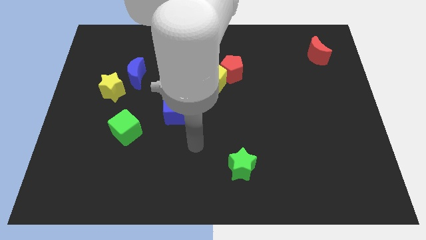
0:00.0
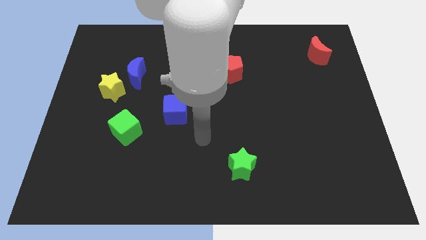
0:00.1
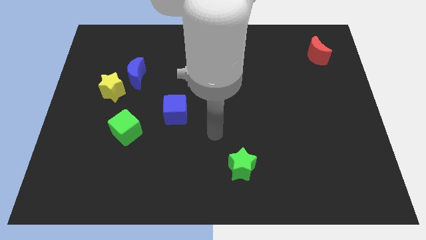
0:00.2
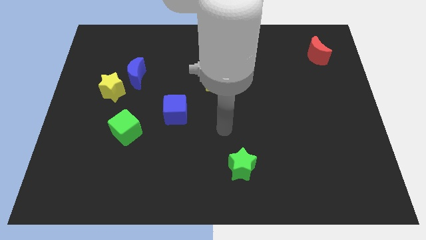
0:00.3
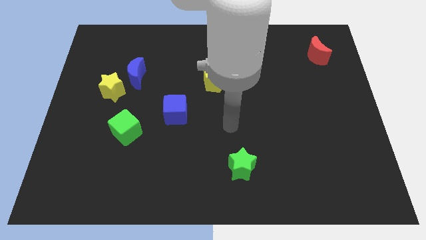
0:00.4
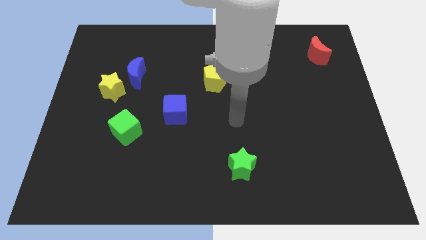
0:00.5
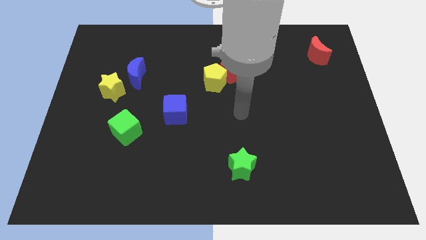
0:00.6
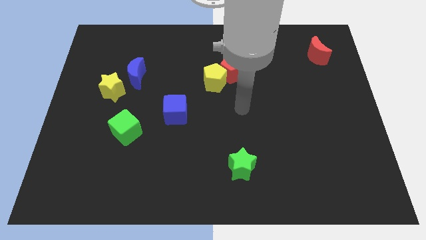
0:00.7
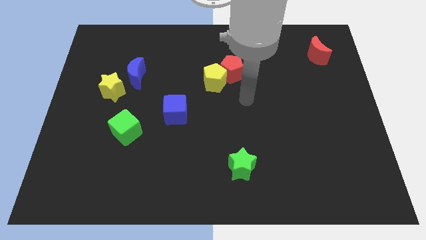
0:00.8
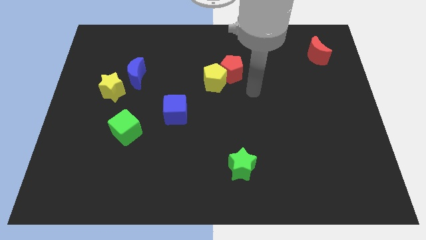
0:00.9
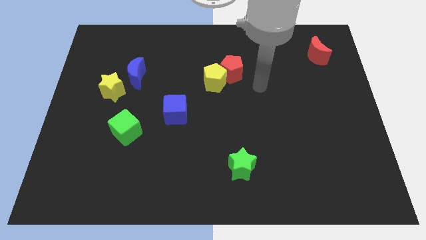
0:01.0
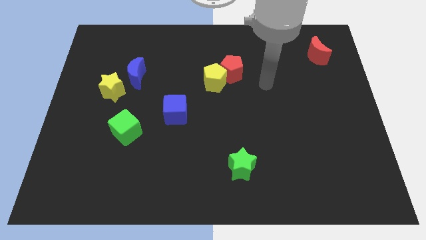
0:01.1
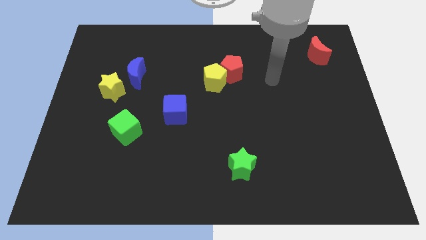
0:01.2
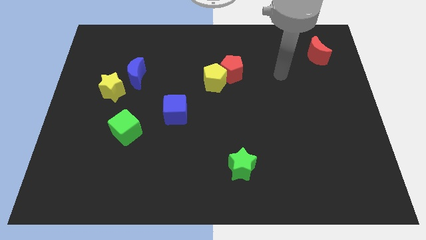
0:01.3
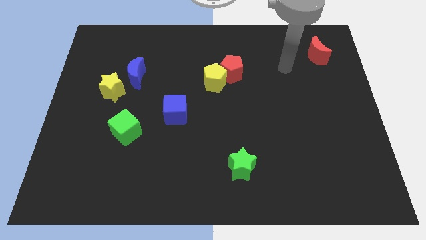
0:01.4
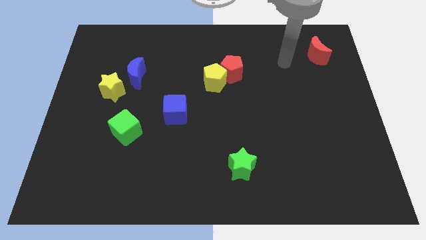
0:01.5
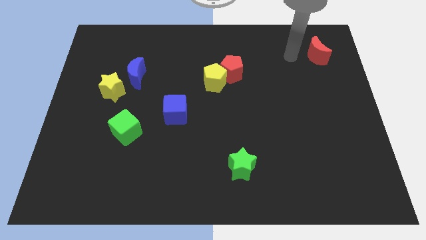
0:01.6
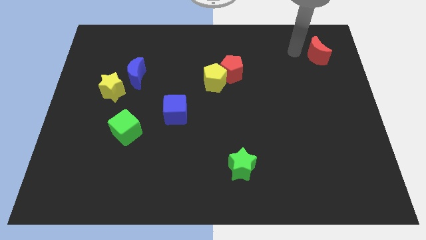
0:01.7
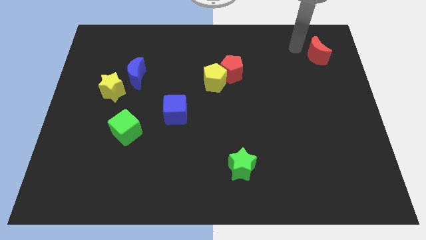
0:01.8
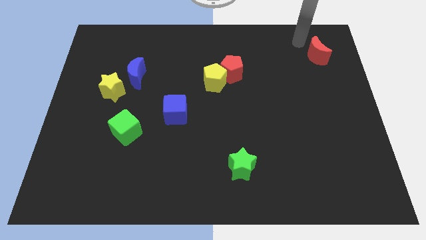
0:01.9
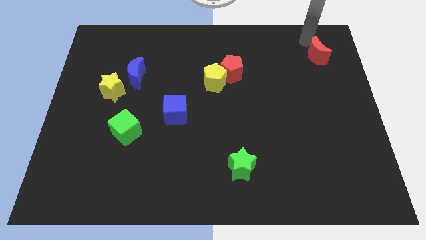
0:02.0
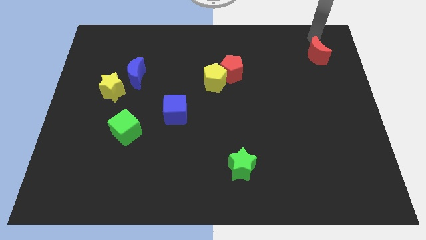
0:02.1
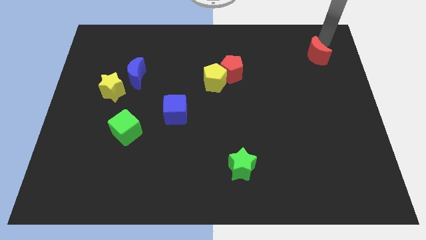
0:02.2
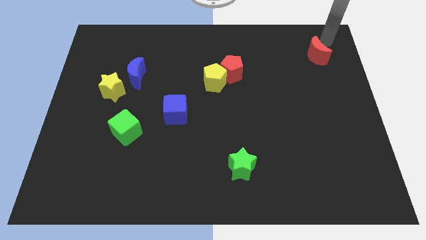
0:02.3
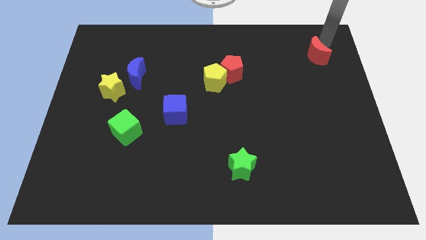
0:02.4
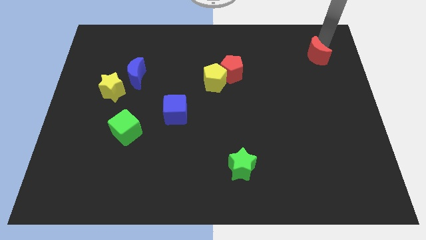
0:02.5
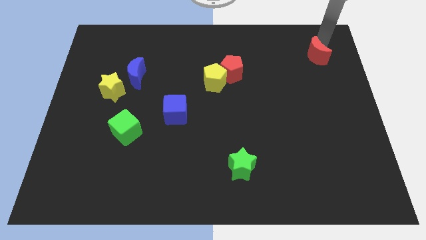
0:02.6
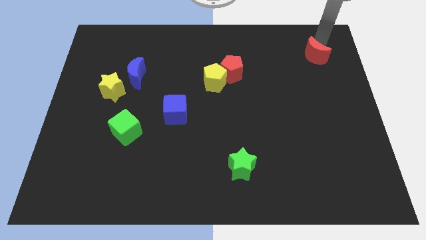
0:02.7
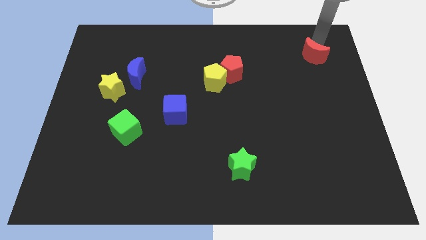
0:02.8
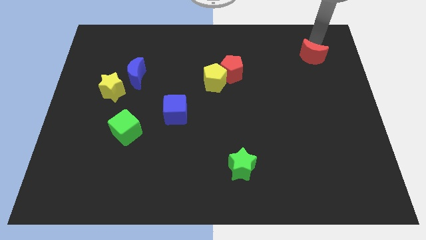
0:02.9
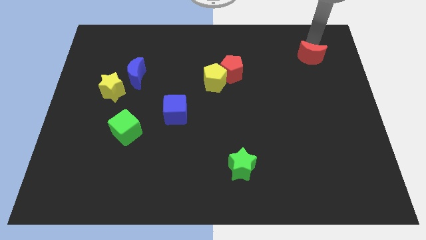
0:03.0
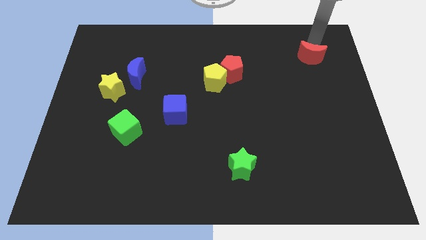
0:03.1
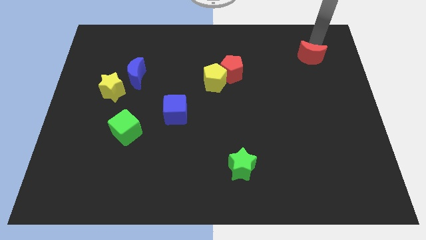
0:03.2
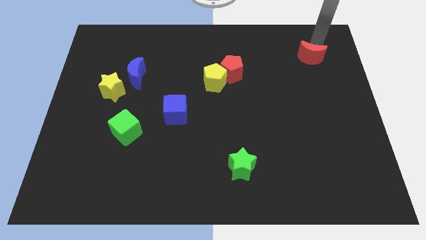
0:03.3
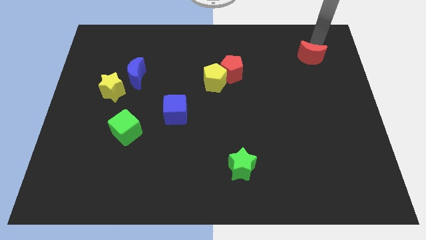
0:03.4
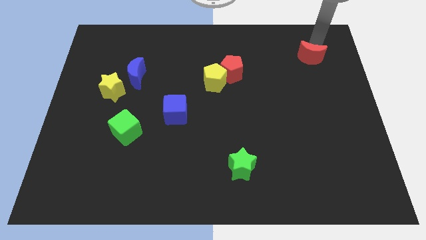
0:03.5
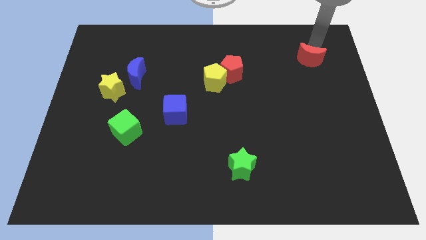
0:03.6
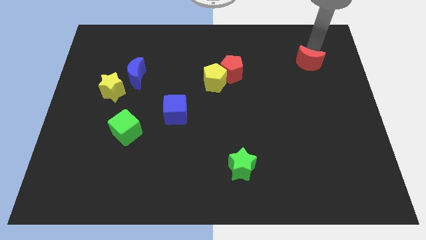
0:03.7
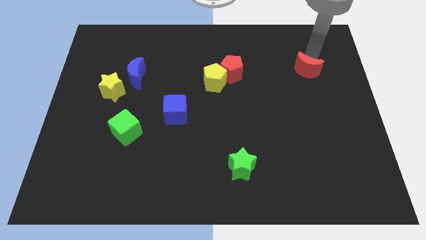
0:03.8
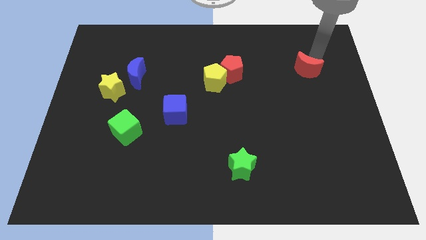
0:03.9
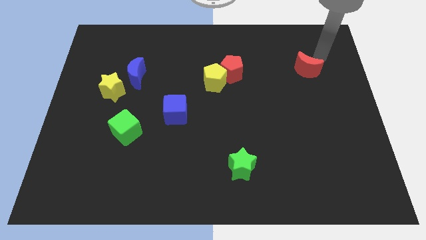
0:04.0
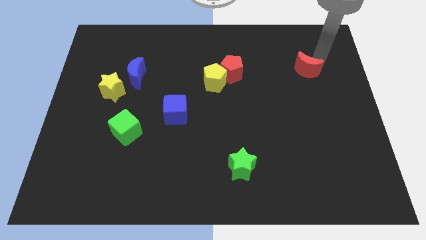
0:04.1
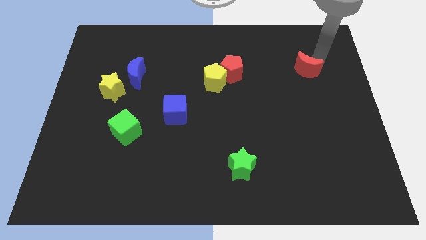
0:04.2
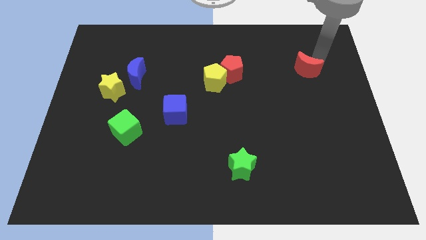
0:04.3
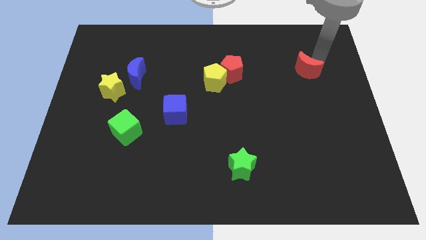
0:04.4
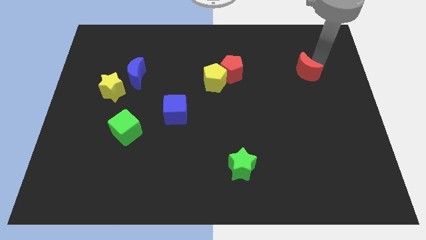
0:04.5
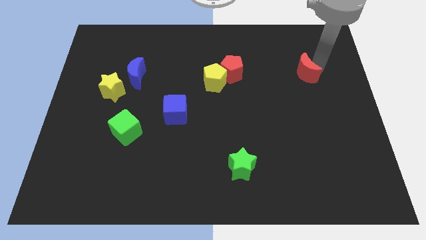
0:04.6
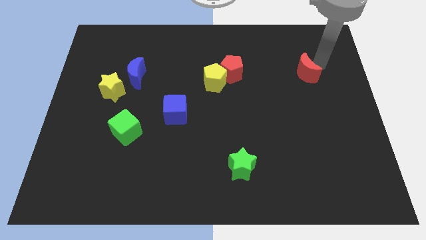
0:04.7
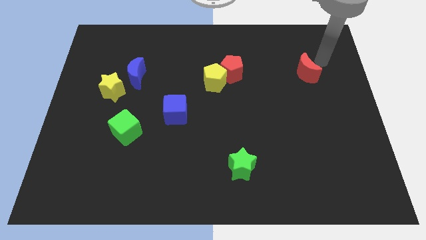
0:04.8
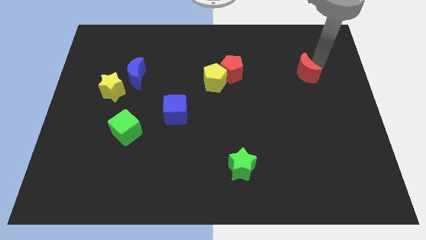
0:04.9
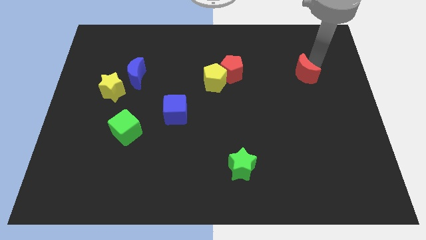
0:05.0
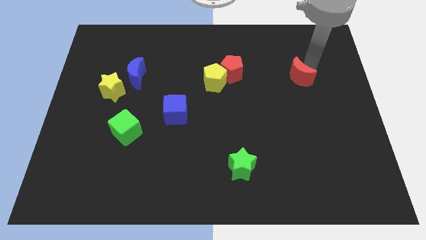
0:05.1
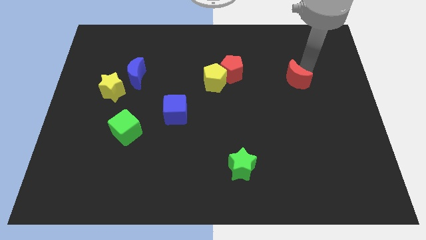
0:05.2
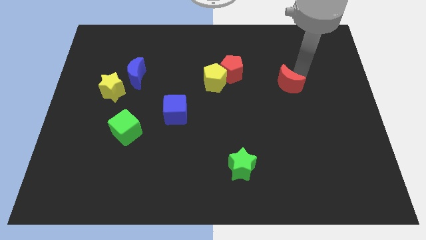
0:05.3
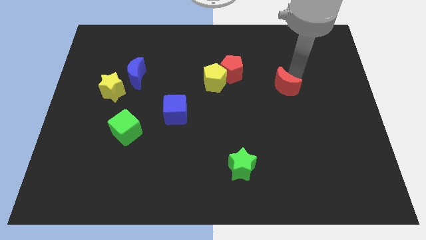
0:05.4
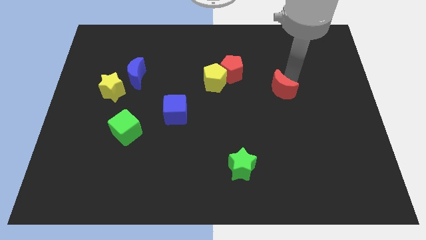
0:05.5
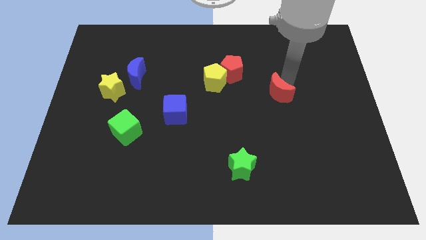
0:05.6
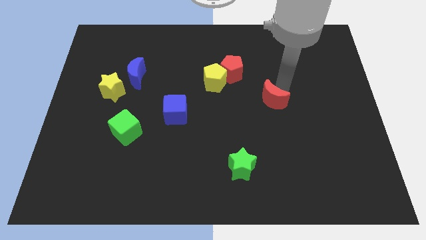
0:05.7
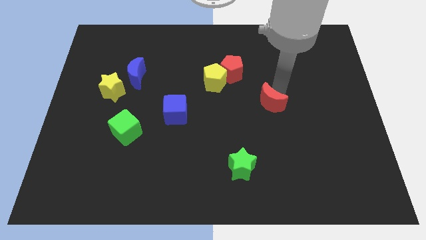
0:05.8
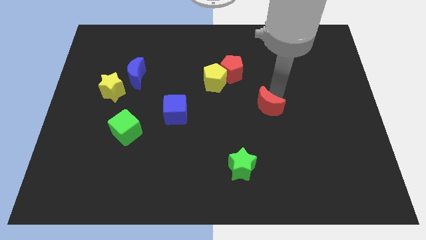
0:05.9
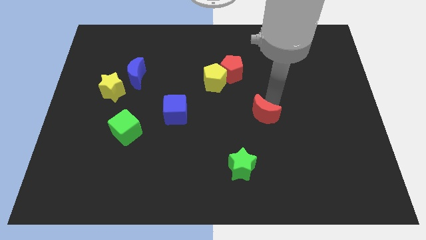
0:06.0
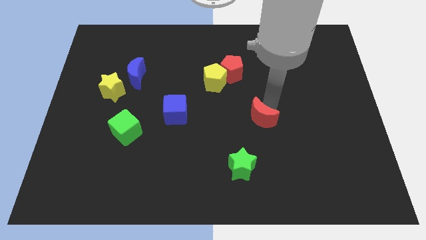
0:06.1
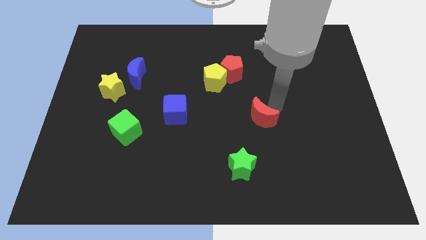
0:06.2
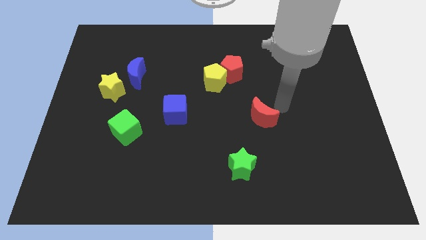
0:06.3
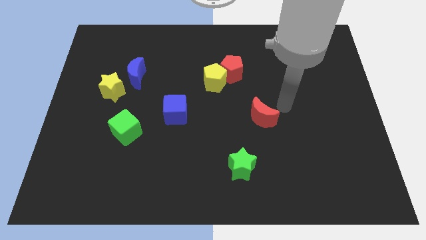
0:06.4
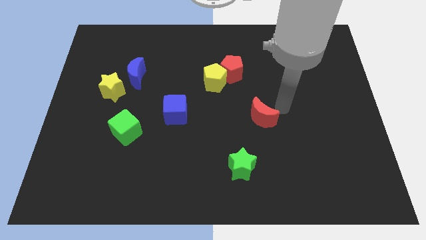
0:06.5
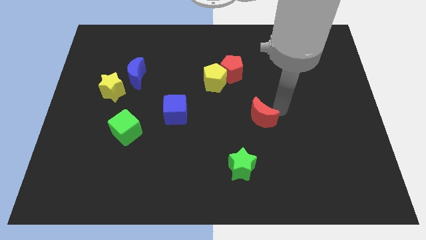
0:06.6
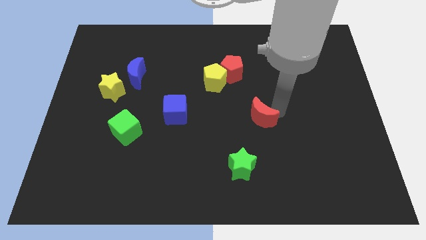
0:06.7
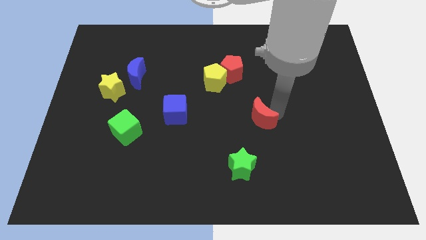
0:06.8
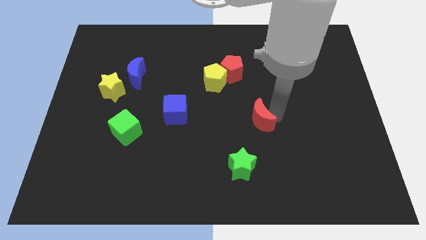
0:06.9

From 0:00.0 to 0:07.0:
put the red moon to the top side of the green star
